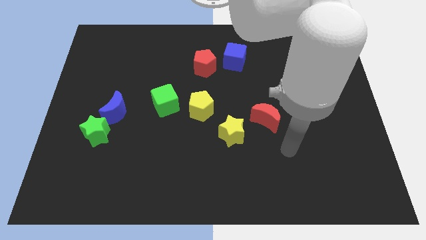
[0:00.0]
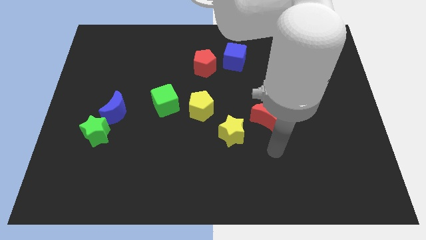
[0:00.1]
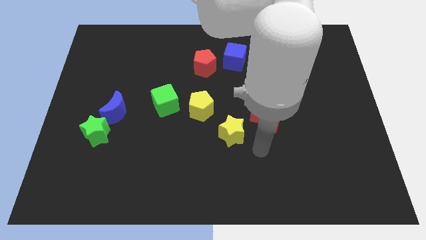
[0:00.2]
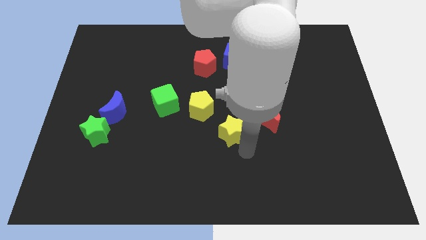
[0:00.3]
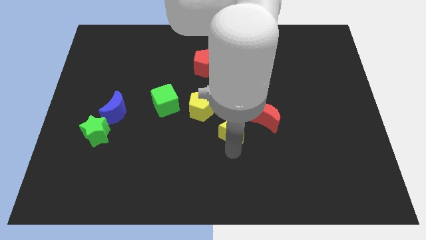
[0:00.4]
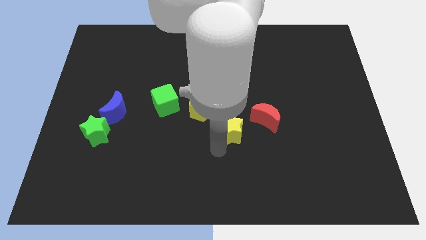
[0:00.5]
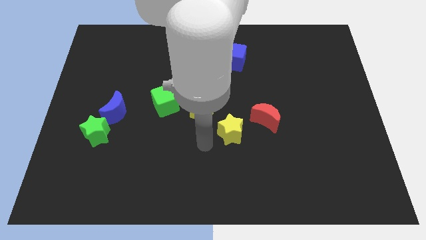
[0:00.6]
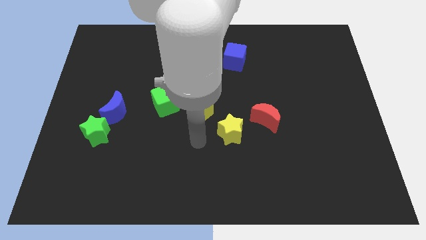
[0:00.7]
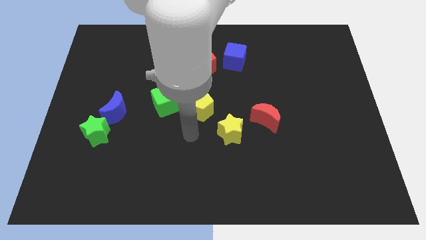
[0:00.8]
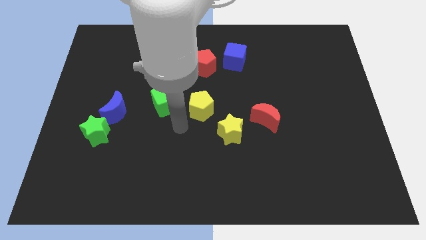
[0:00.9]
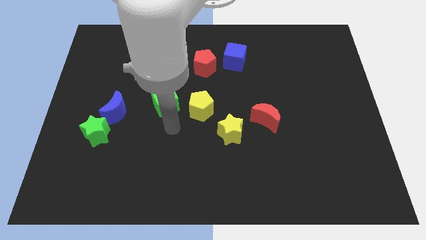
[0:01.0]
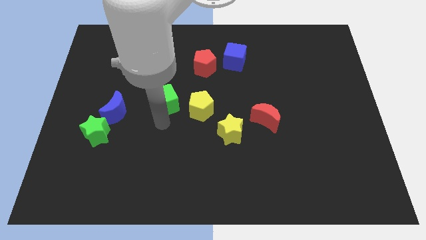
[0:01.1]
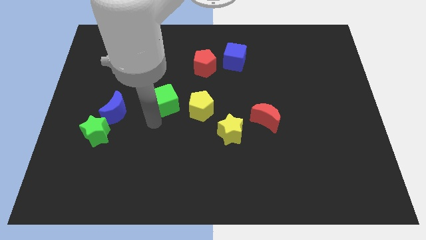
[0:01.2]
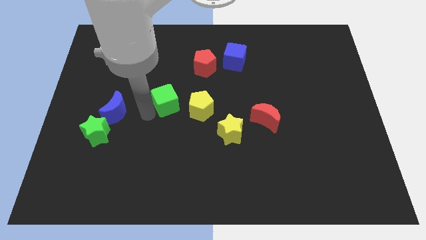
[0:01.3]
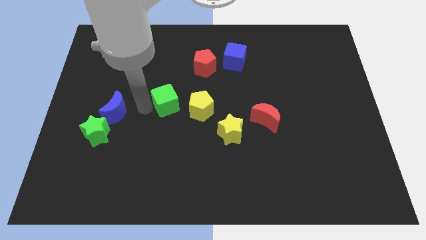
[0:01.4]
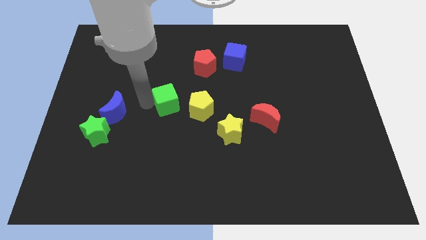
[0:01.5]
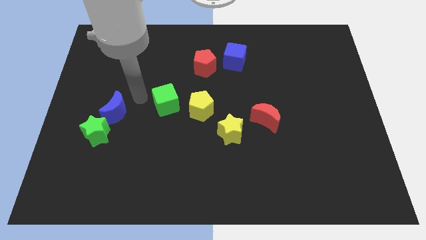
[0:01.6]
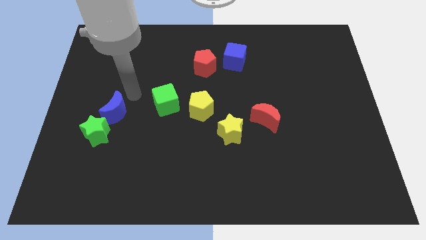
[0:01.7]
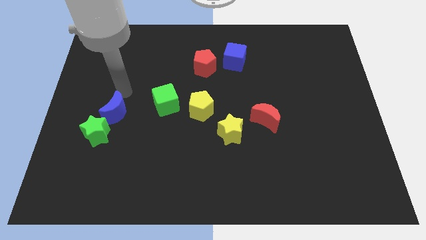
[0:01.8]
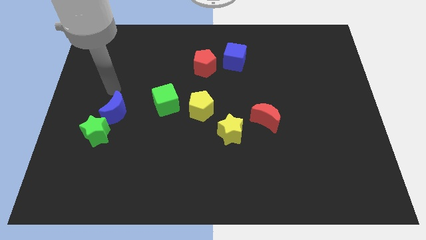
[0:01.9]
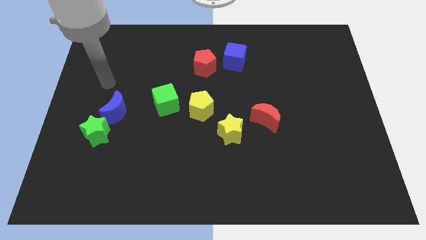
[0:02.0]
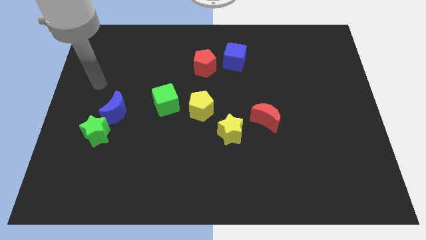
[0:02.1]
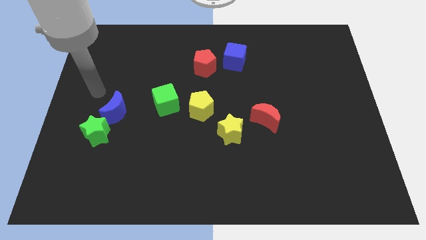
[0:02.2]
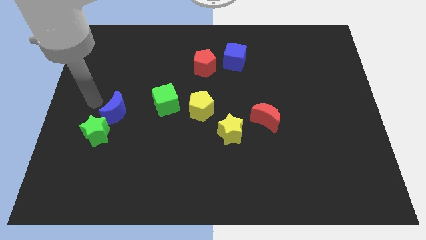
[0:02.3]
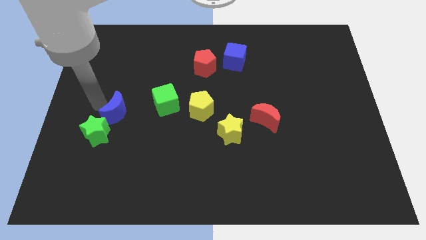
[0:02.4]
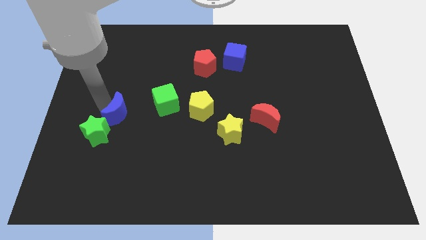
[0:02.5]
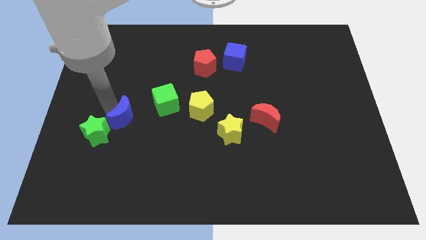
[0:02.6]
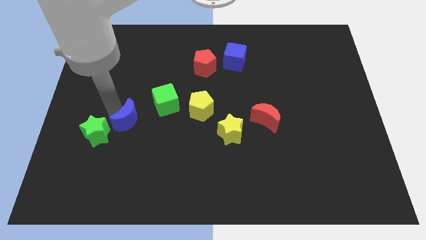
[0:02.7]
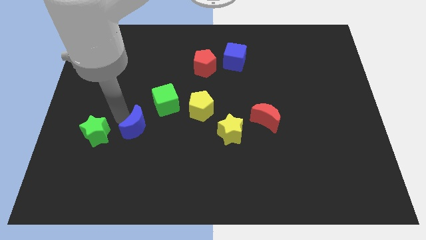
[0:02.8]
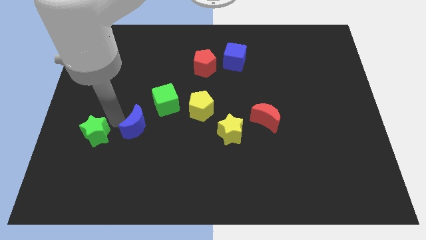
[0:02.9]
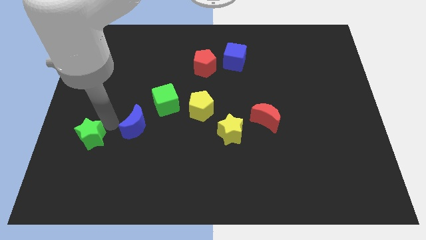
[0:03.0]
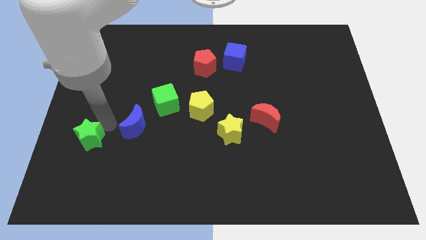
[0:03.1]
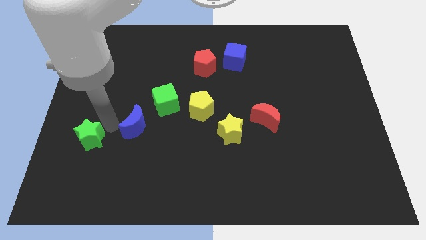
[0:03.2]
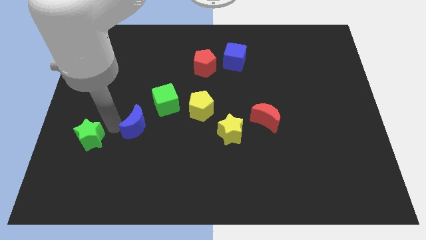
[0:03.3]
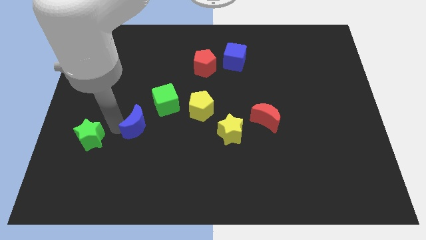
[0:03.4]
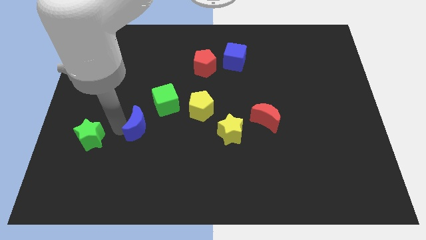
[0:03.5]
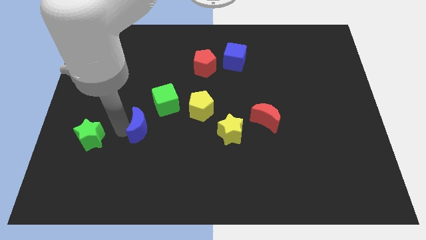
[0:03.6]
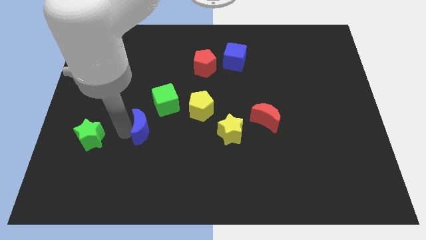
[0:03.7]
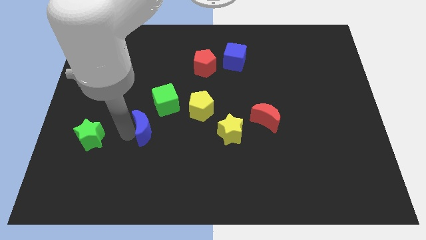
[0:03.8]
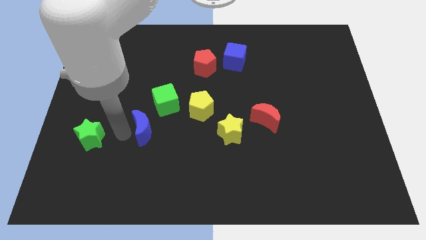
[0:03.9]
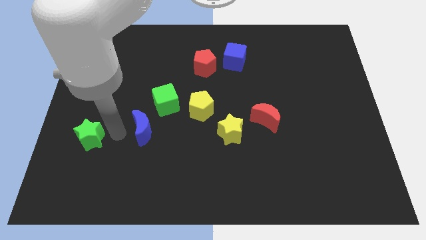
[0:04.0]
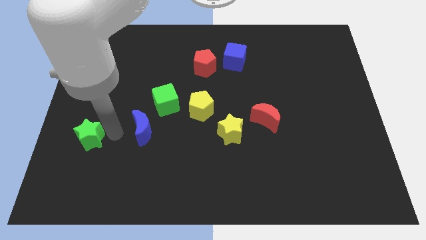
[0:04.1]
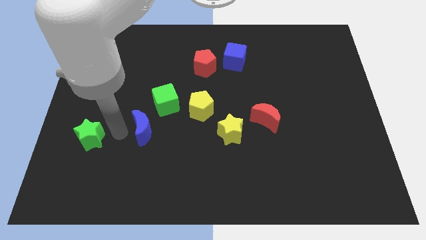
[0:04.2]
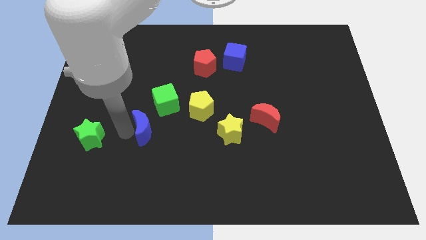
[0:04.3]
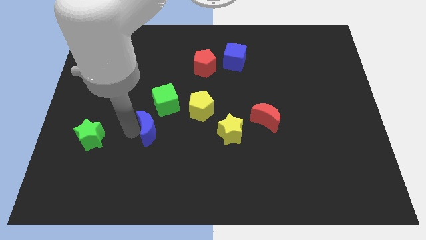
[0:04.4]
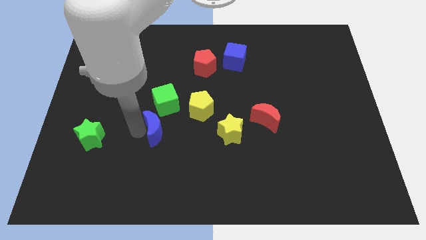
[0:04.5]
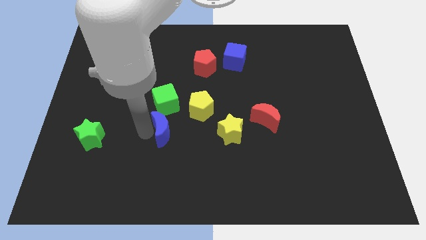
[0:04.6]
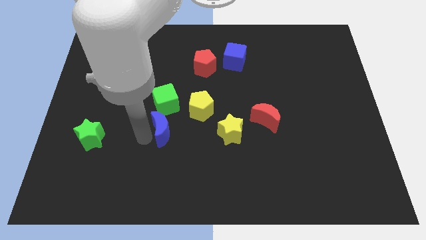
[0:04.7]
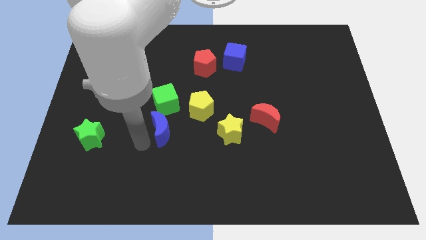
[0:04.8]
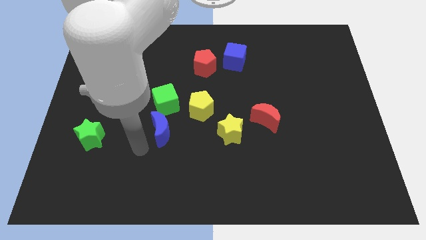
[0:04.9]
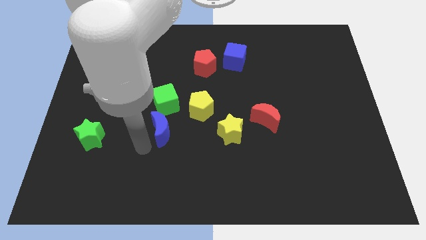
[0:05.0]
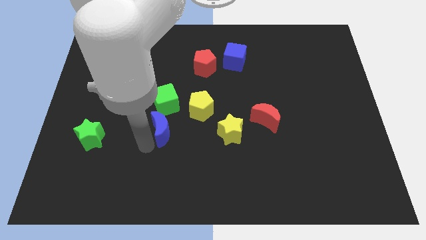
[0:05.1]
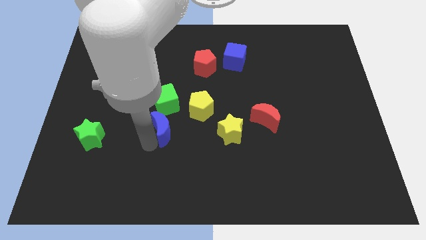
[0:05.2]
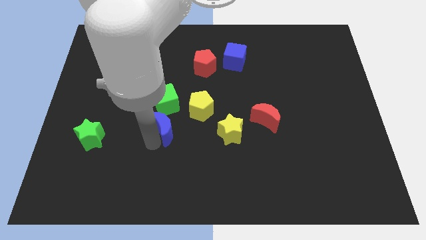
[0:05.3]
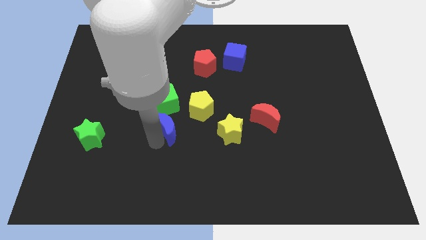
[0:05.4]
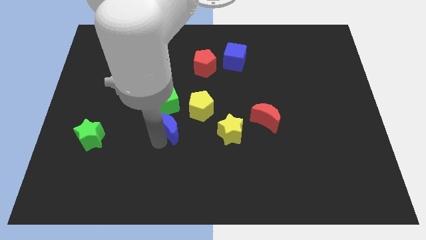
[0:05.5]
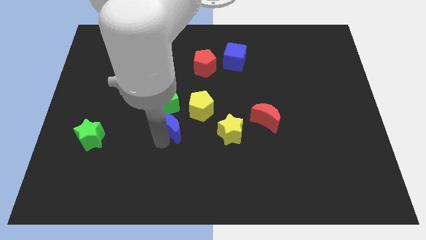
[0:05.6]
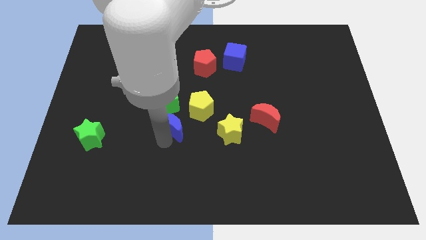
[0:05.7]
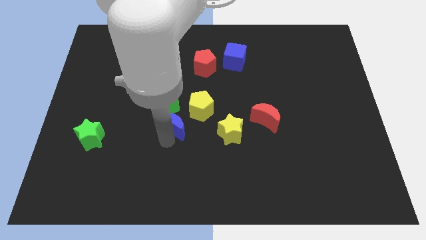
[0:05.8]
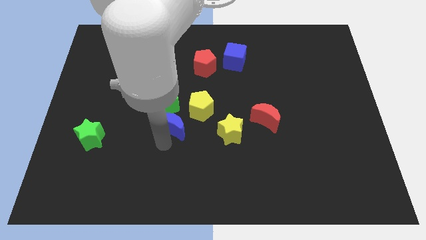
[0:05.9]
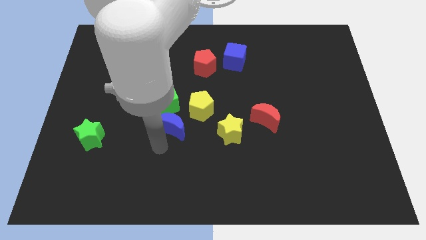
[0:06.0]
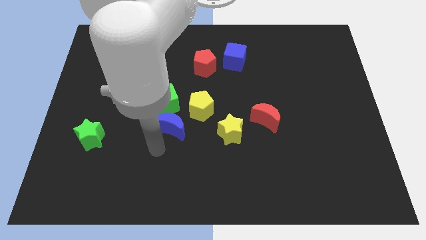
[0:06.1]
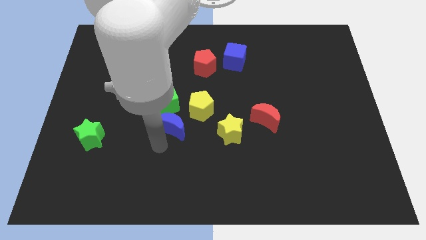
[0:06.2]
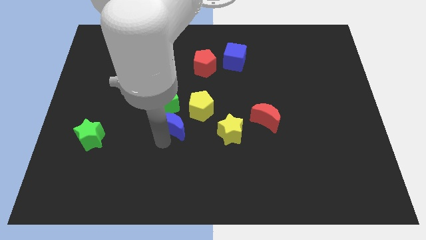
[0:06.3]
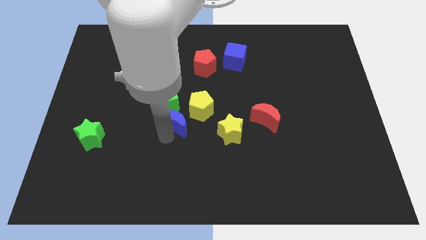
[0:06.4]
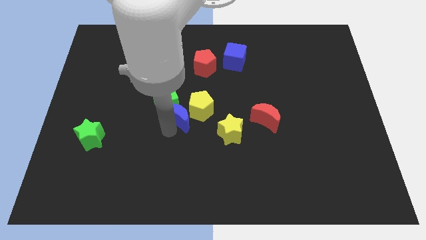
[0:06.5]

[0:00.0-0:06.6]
move the blue moon towards the yellow pentagon

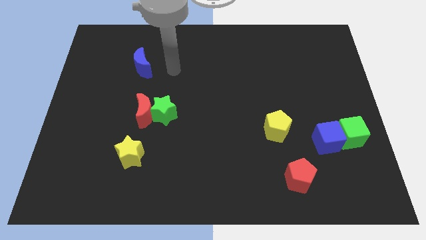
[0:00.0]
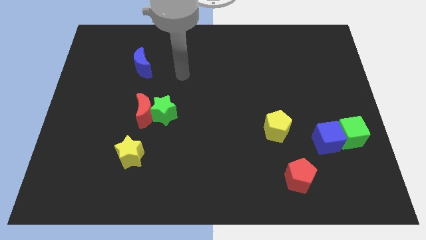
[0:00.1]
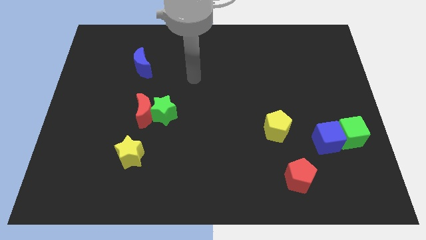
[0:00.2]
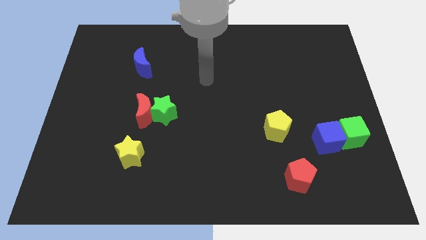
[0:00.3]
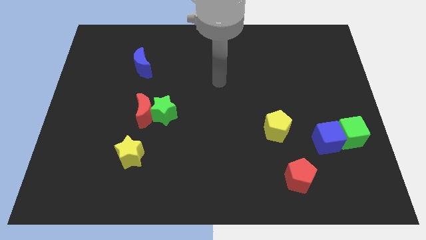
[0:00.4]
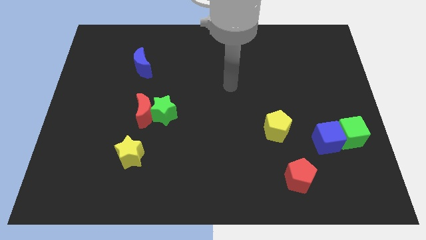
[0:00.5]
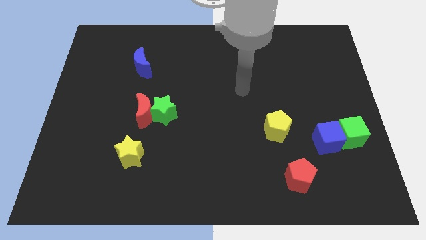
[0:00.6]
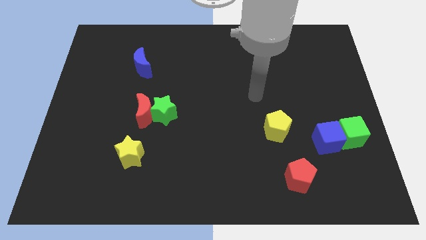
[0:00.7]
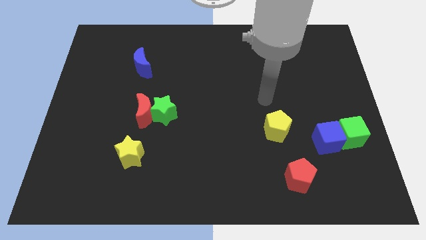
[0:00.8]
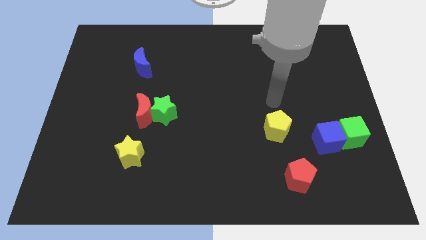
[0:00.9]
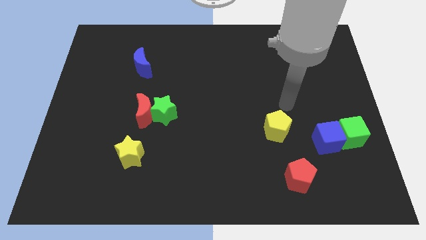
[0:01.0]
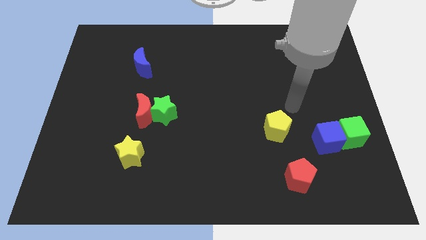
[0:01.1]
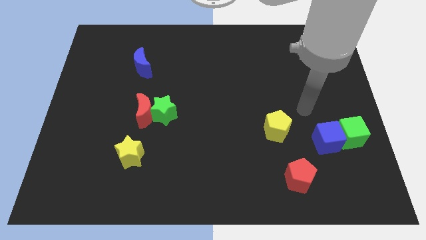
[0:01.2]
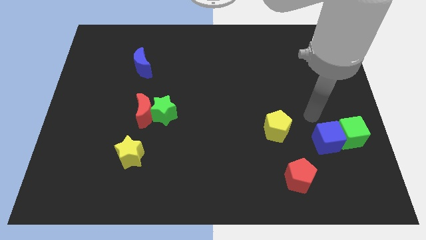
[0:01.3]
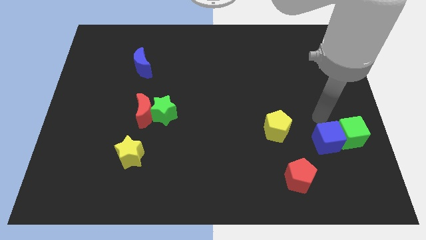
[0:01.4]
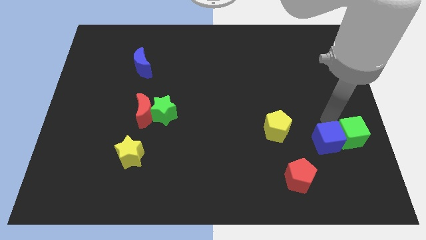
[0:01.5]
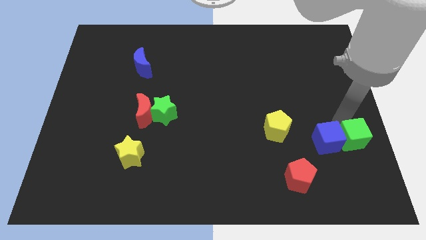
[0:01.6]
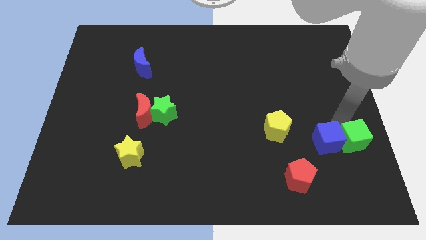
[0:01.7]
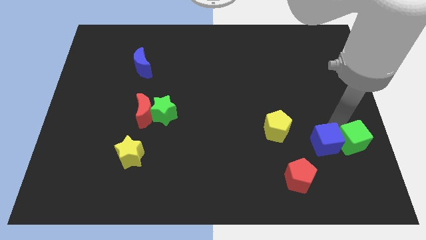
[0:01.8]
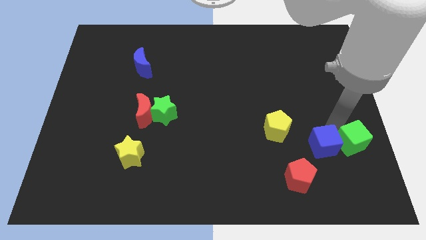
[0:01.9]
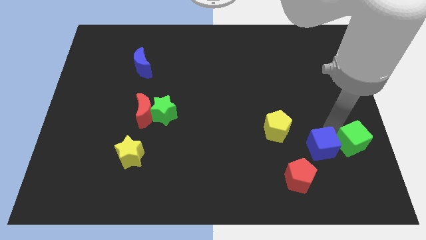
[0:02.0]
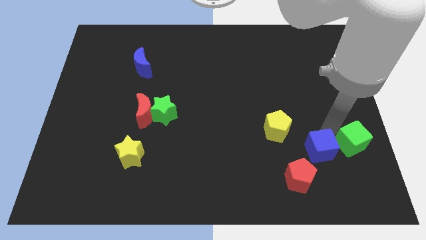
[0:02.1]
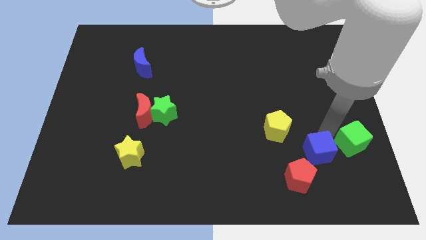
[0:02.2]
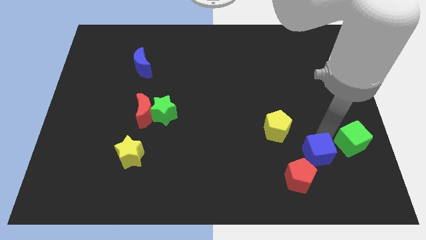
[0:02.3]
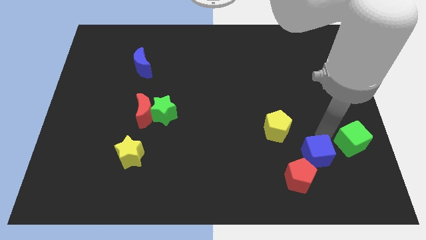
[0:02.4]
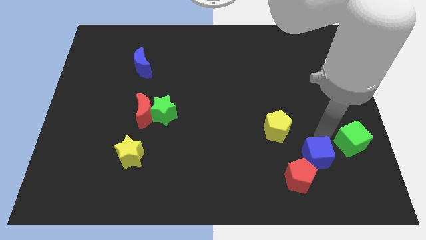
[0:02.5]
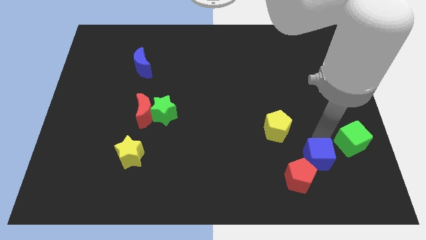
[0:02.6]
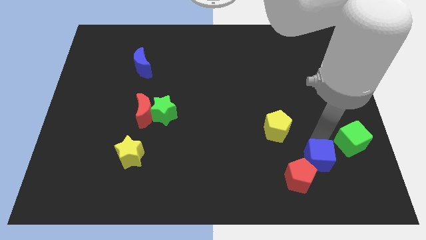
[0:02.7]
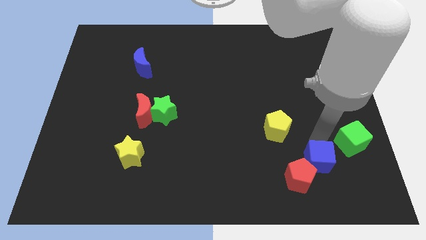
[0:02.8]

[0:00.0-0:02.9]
put the blue cube towards the red pentagon
